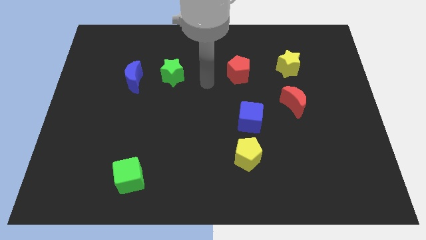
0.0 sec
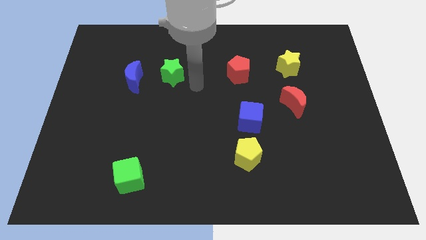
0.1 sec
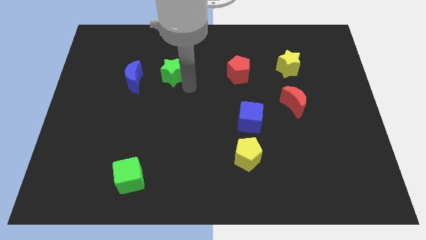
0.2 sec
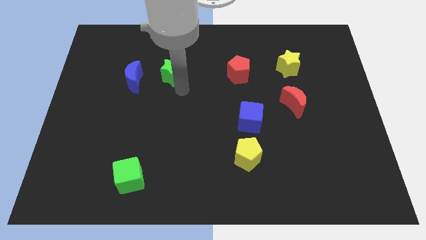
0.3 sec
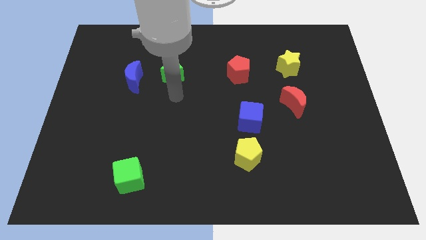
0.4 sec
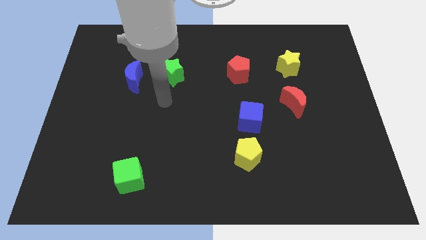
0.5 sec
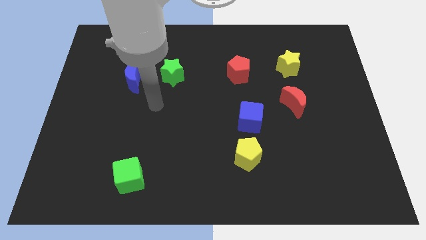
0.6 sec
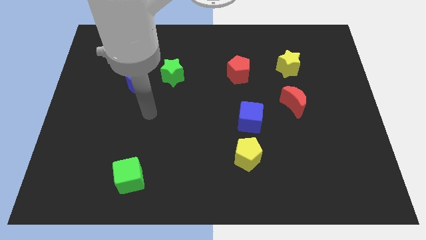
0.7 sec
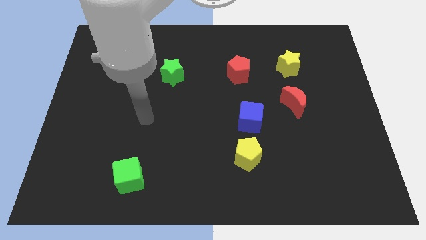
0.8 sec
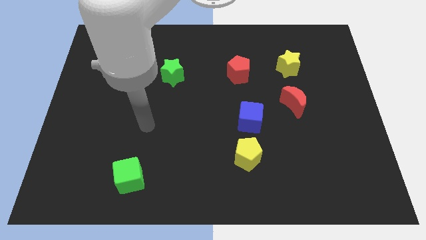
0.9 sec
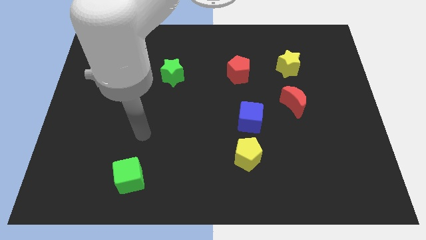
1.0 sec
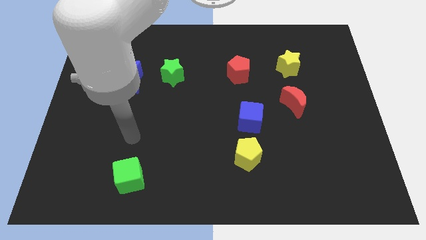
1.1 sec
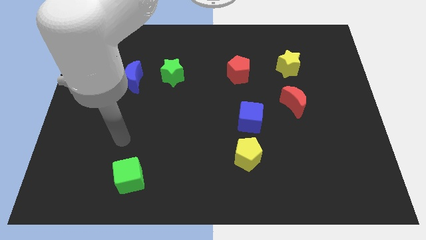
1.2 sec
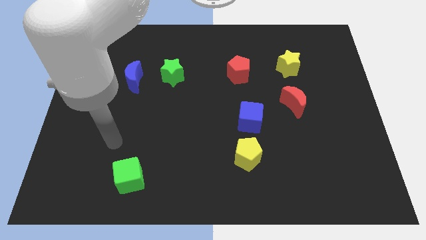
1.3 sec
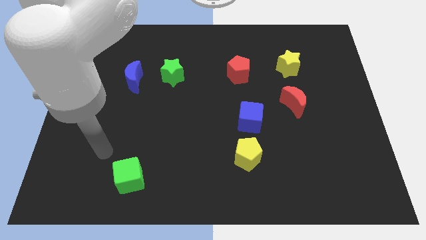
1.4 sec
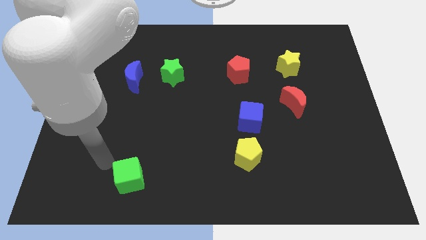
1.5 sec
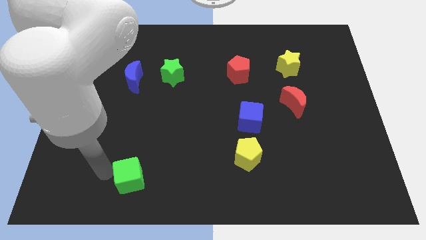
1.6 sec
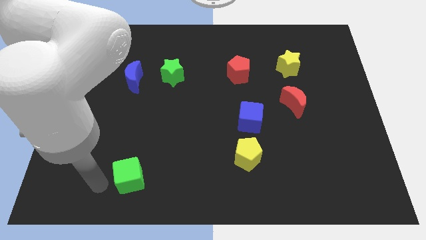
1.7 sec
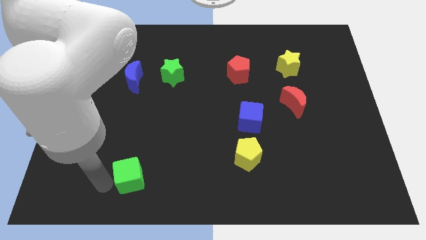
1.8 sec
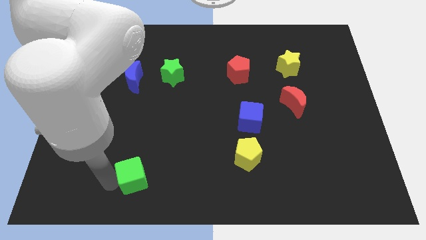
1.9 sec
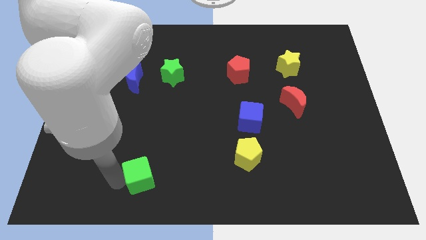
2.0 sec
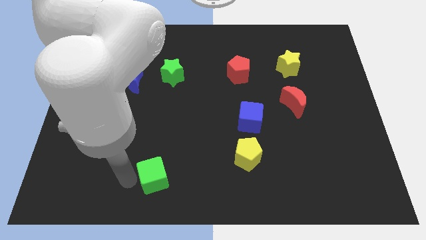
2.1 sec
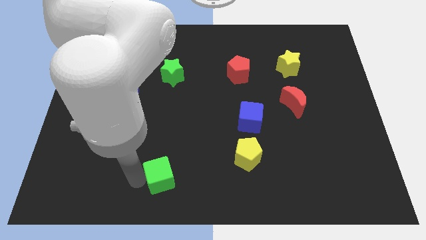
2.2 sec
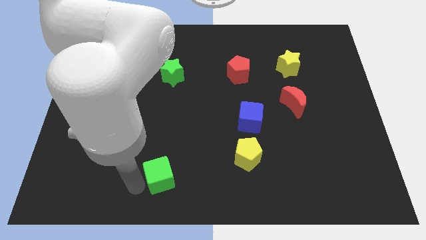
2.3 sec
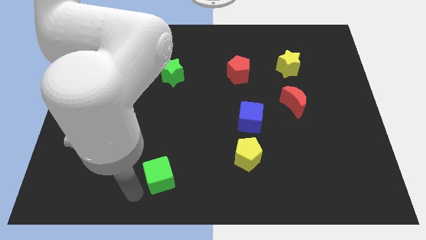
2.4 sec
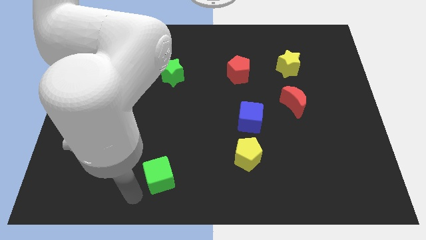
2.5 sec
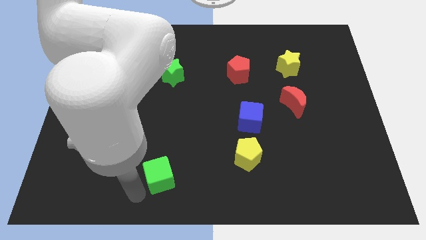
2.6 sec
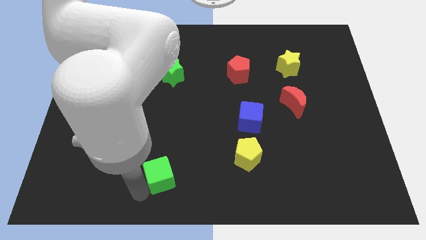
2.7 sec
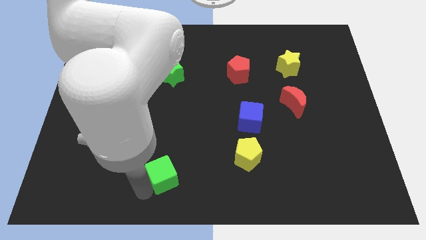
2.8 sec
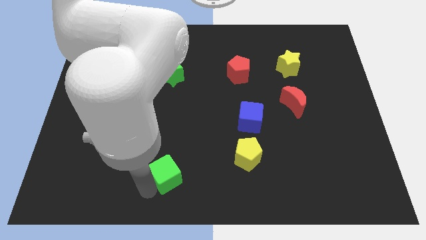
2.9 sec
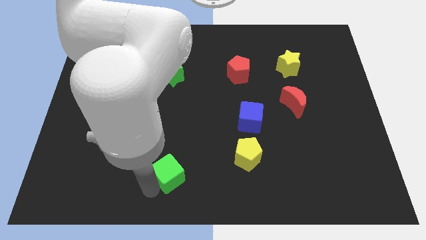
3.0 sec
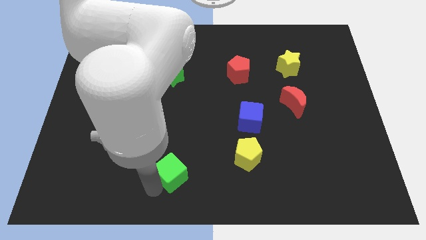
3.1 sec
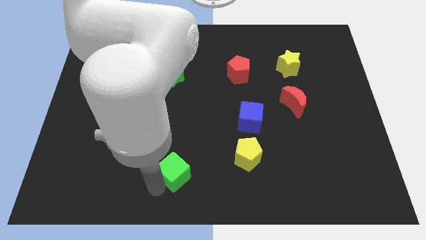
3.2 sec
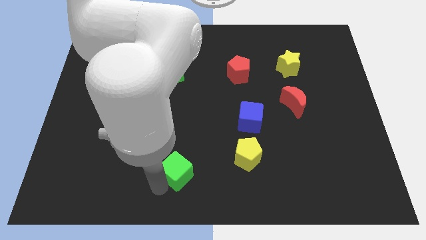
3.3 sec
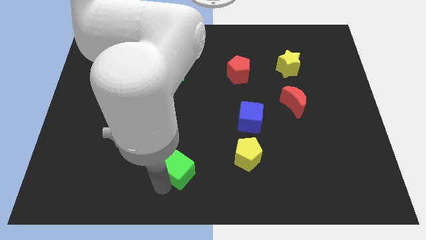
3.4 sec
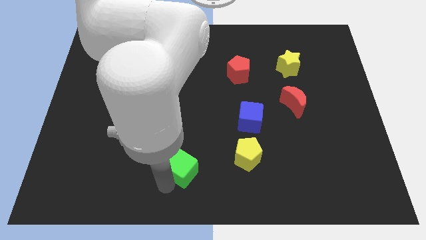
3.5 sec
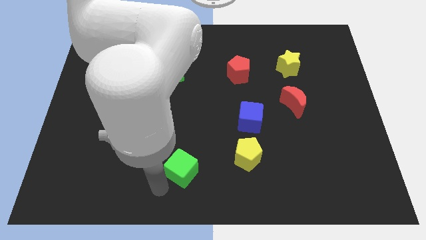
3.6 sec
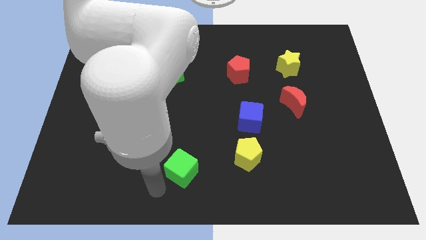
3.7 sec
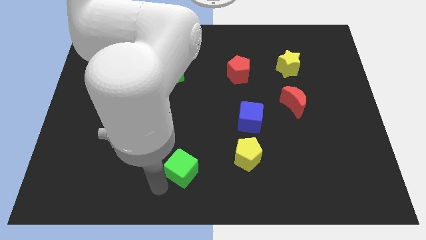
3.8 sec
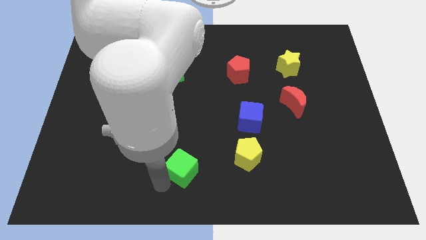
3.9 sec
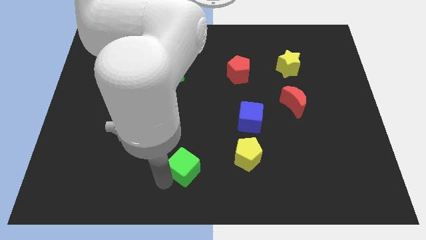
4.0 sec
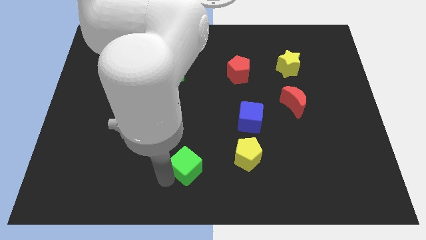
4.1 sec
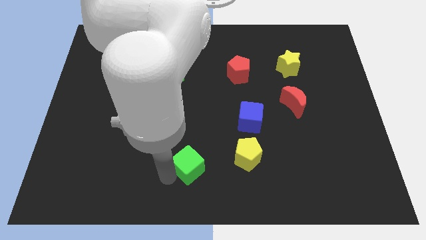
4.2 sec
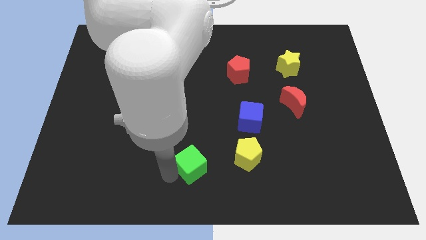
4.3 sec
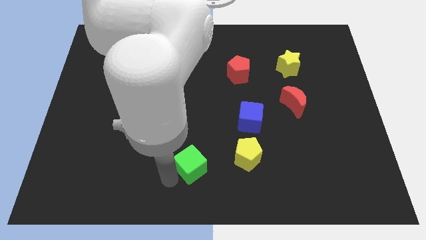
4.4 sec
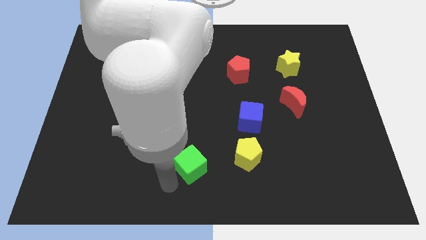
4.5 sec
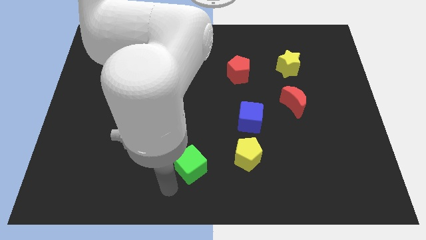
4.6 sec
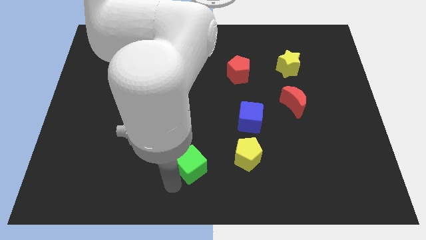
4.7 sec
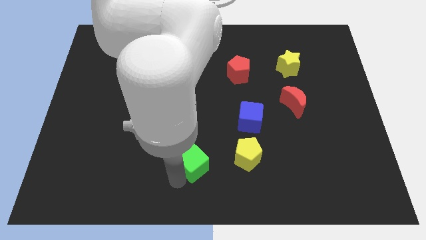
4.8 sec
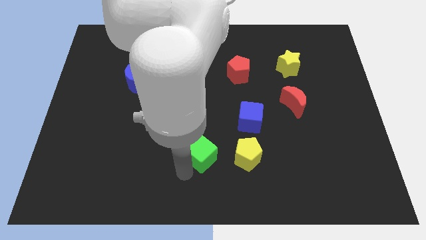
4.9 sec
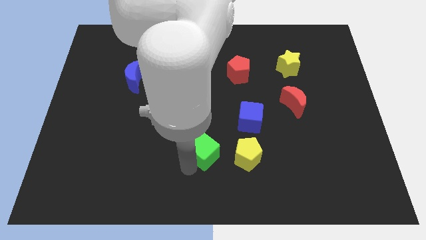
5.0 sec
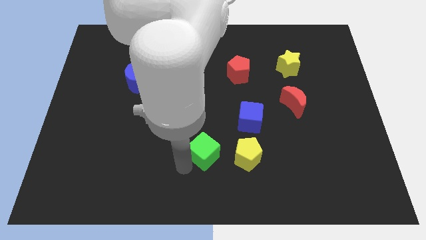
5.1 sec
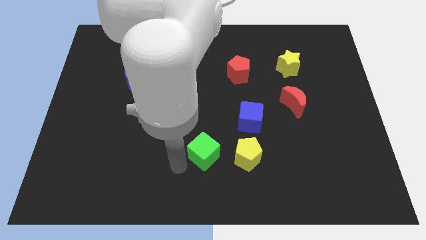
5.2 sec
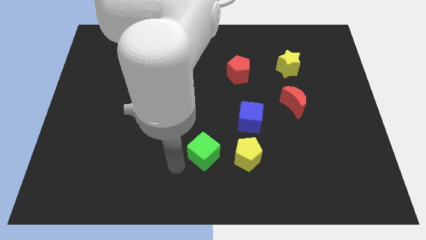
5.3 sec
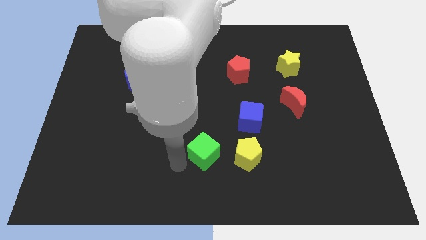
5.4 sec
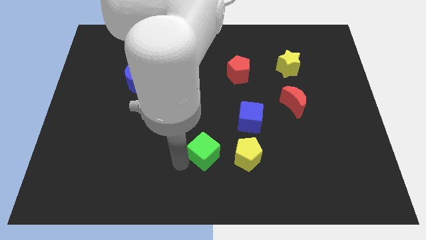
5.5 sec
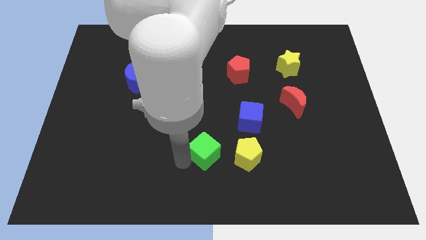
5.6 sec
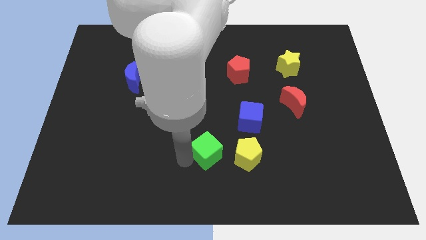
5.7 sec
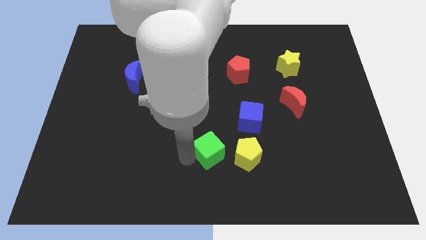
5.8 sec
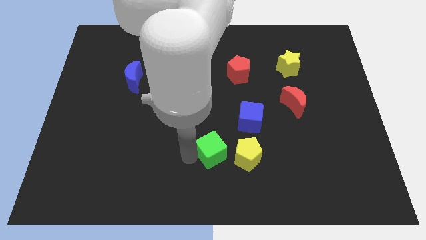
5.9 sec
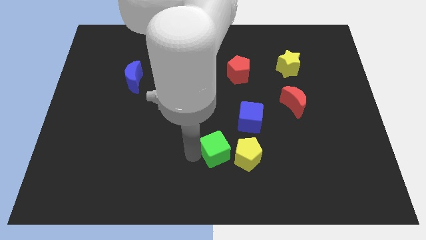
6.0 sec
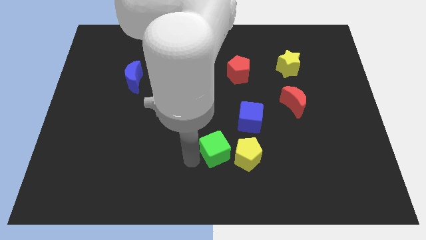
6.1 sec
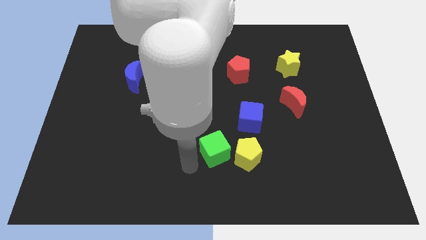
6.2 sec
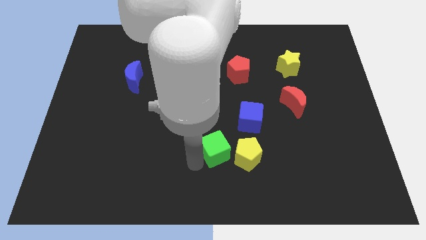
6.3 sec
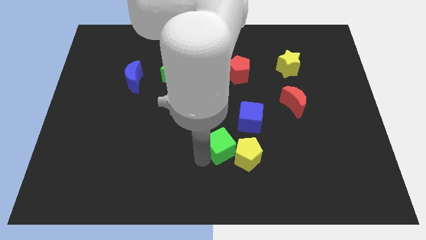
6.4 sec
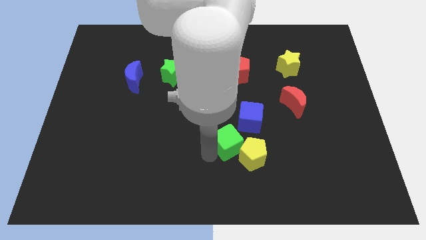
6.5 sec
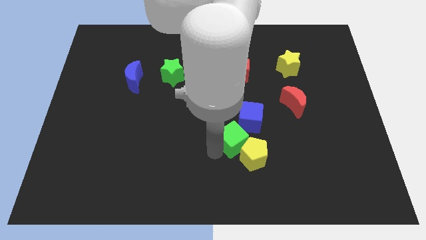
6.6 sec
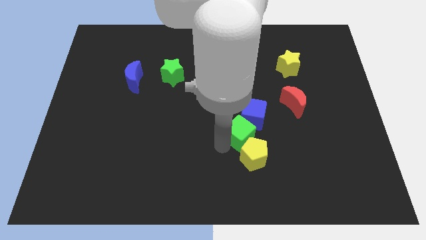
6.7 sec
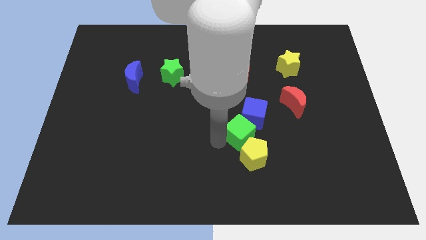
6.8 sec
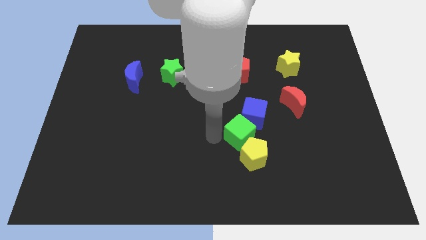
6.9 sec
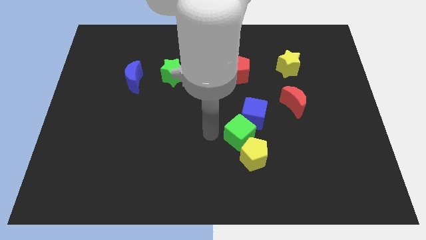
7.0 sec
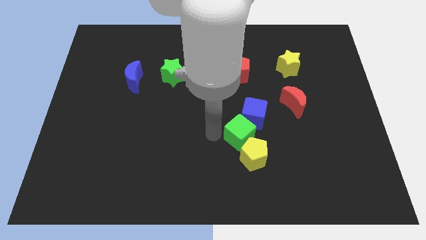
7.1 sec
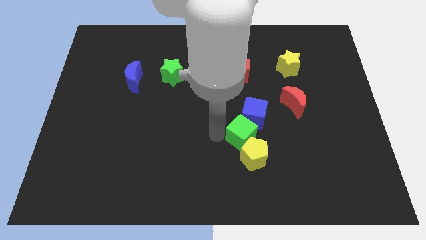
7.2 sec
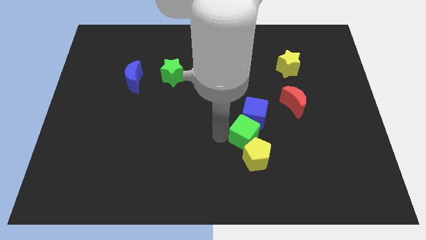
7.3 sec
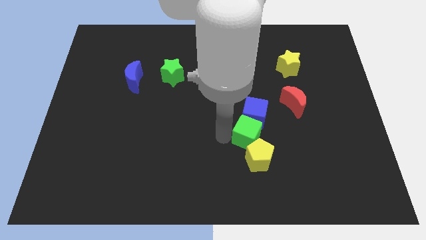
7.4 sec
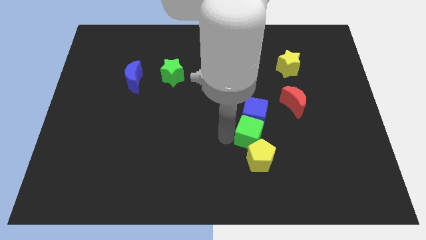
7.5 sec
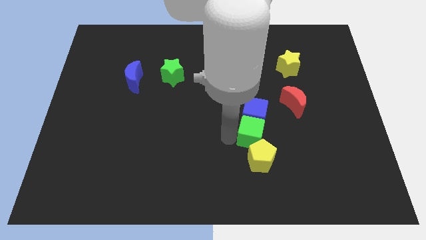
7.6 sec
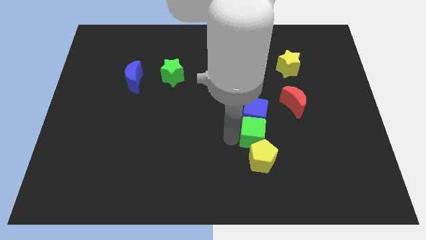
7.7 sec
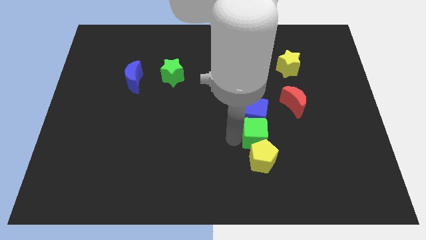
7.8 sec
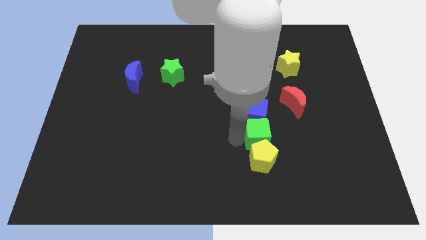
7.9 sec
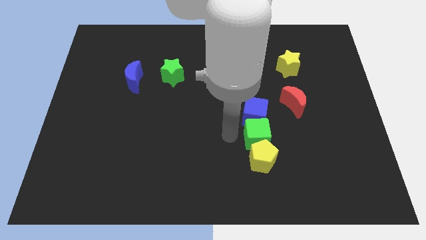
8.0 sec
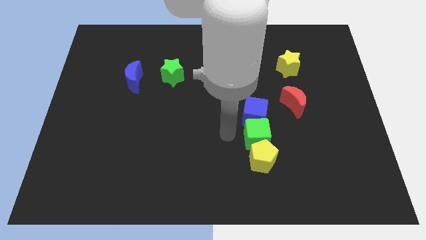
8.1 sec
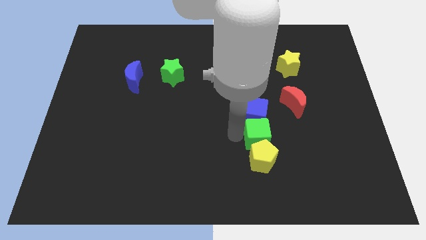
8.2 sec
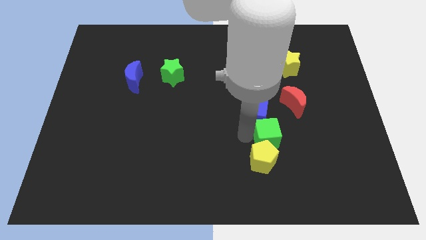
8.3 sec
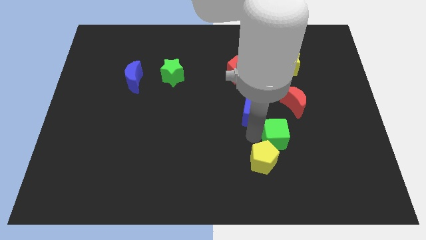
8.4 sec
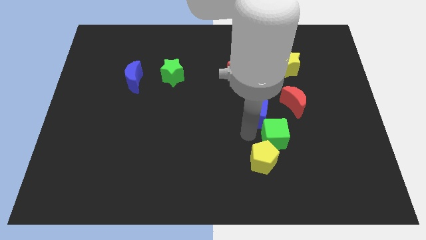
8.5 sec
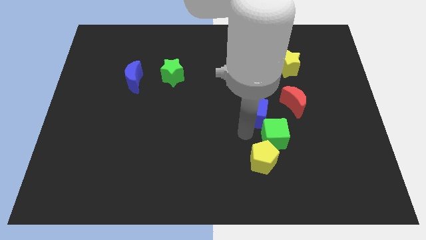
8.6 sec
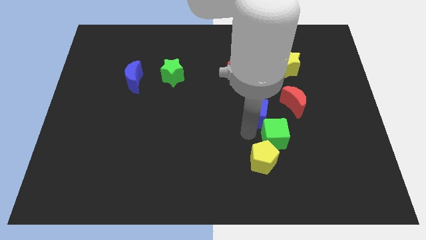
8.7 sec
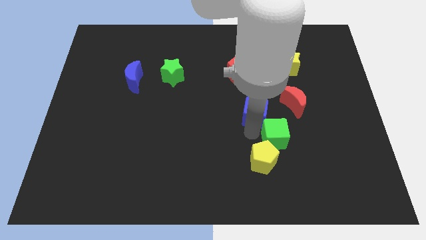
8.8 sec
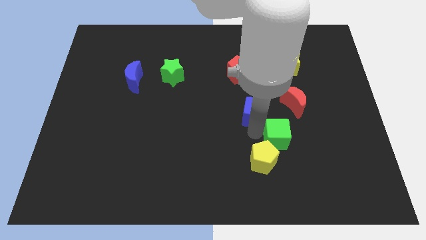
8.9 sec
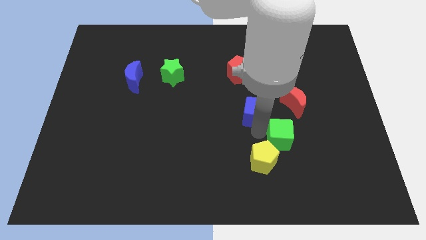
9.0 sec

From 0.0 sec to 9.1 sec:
slide the green cube below the red moon
